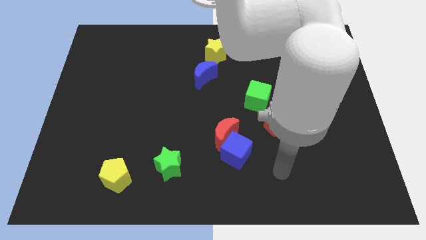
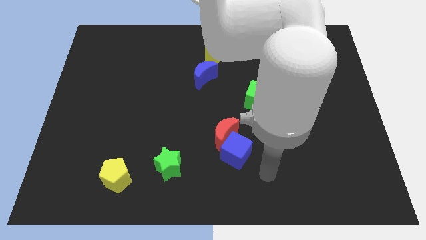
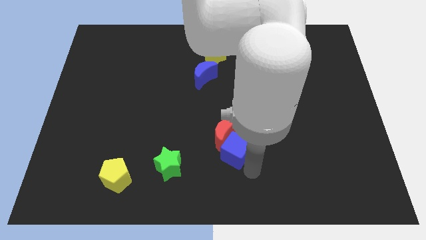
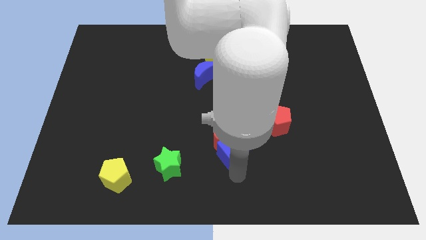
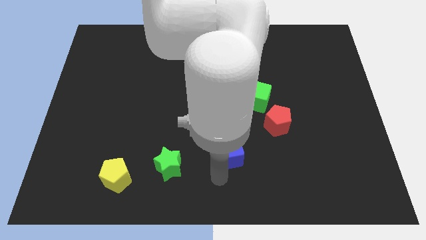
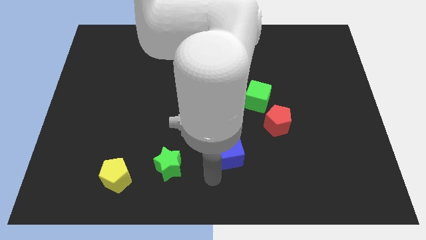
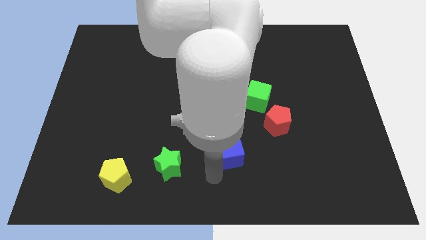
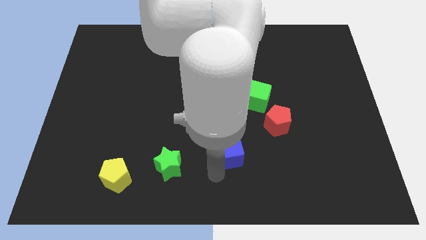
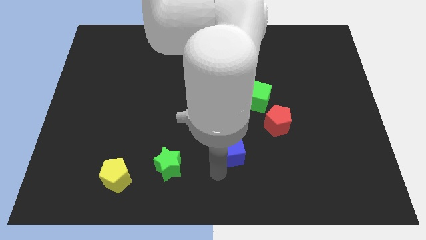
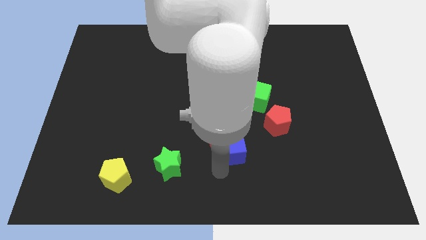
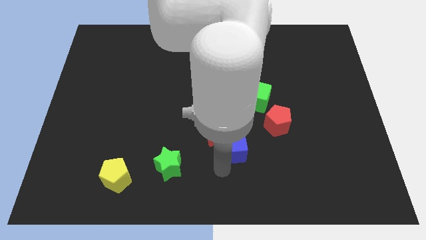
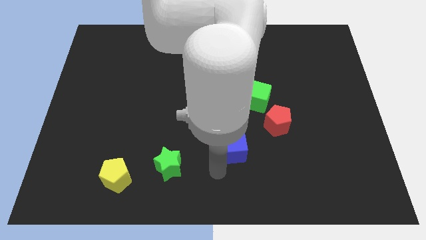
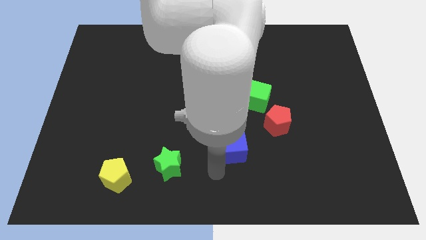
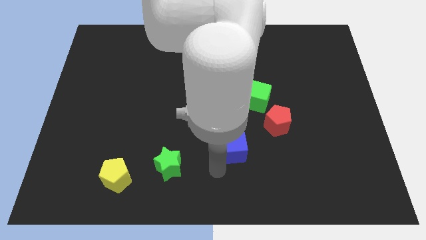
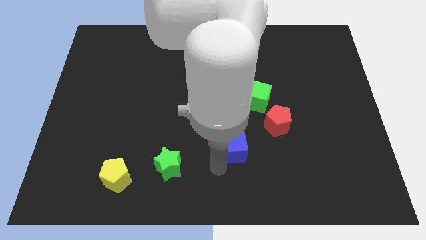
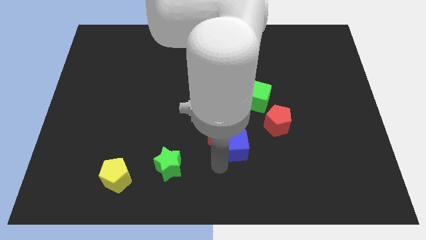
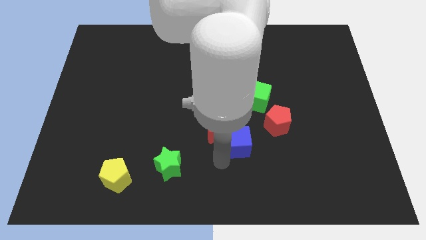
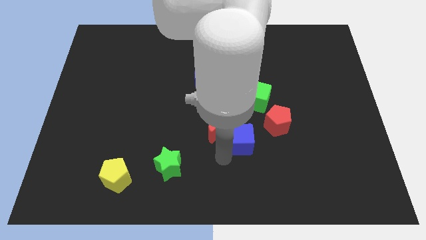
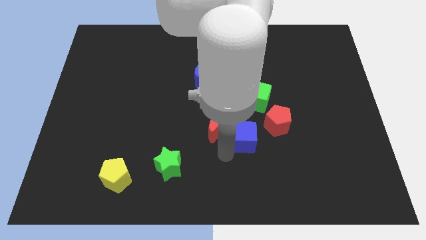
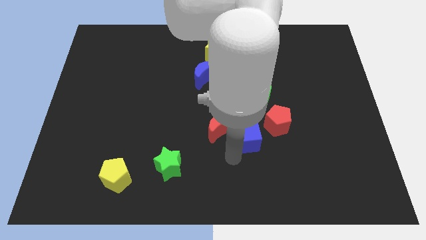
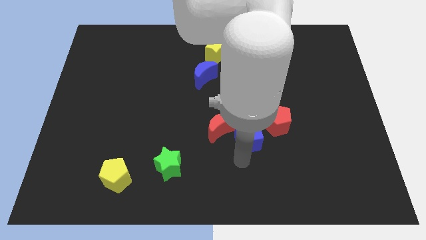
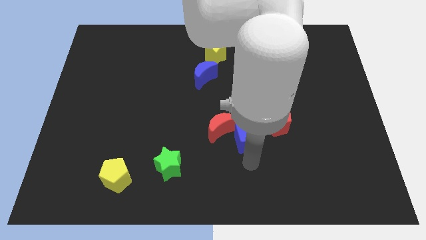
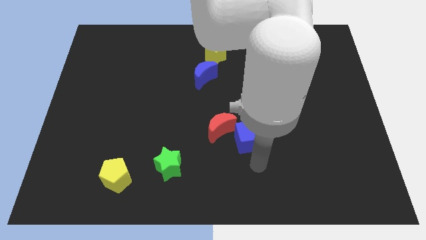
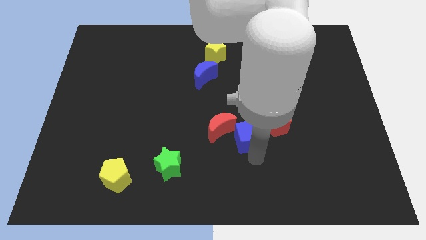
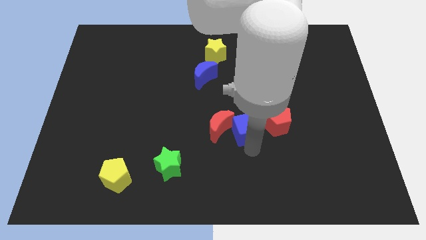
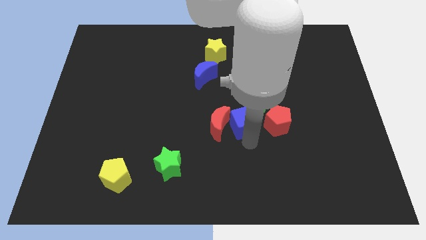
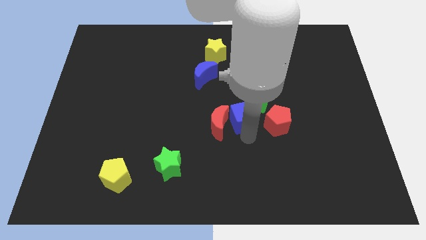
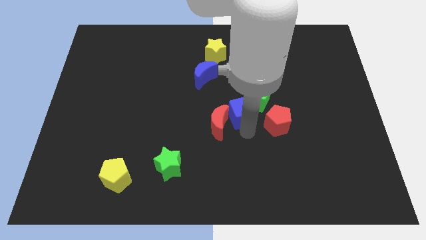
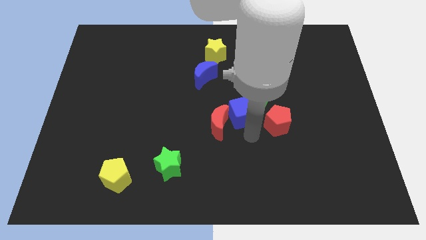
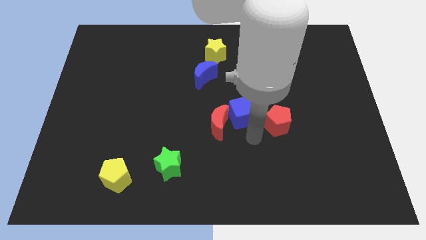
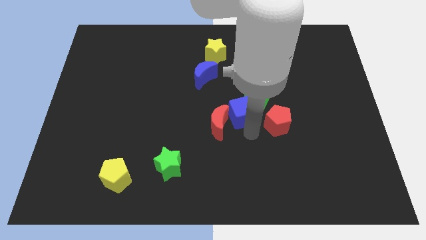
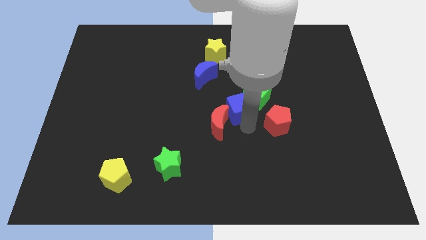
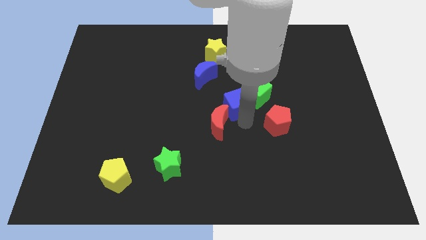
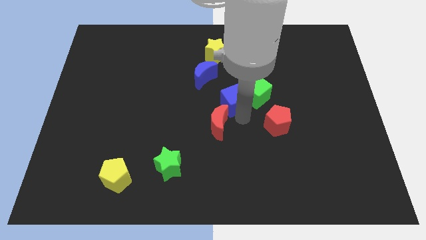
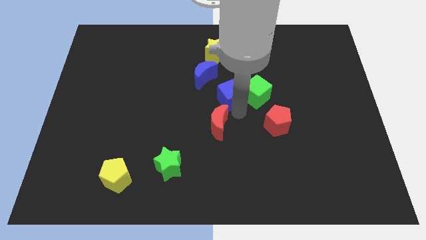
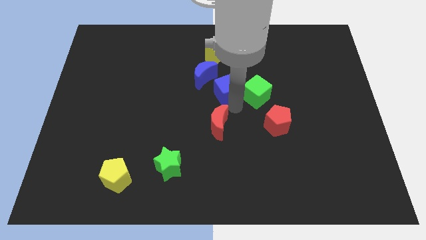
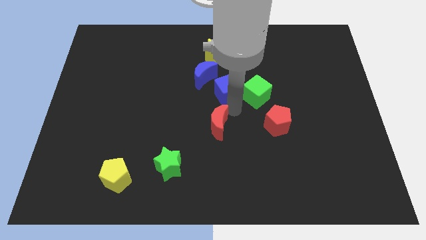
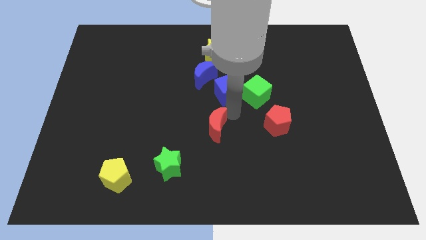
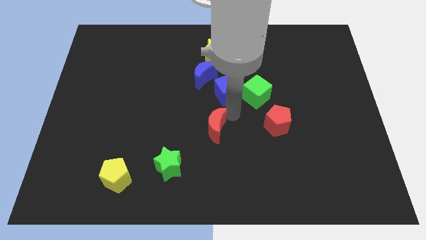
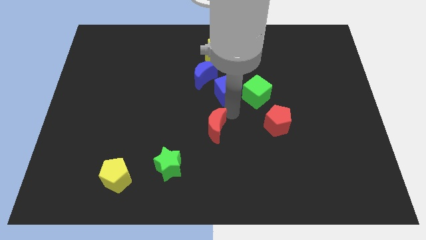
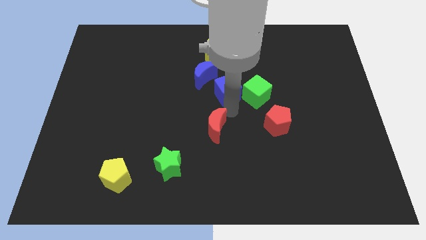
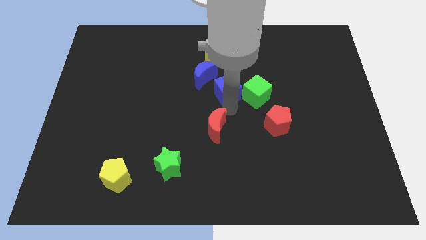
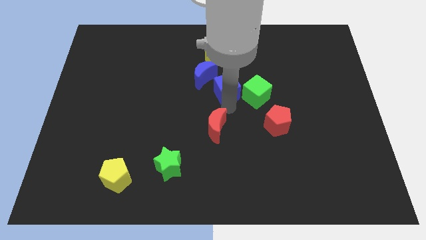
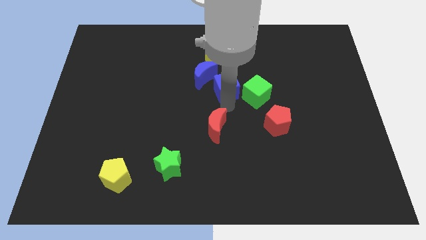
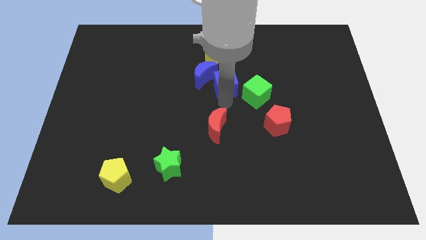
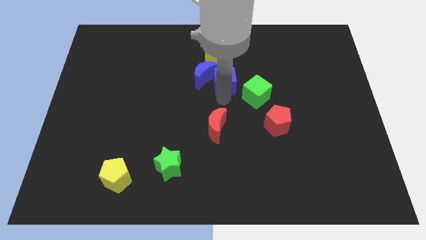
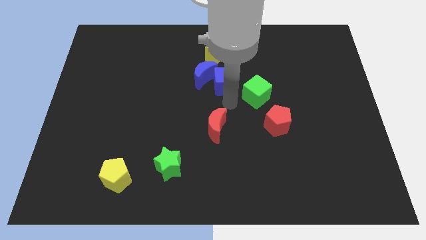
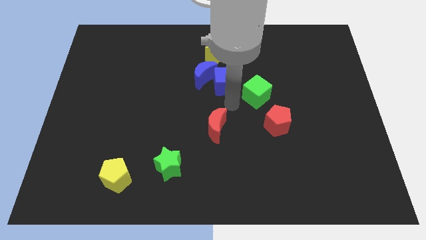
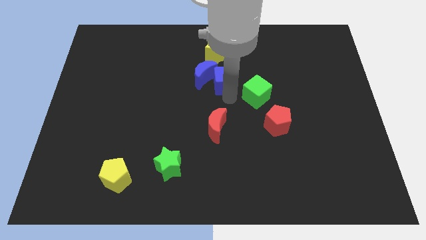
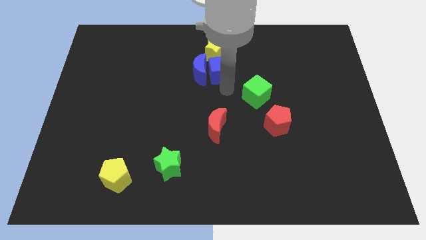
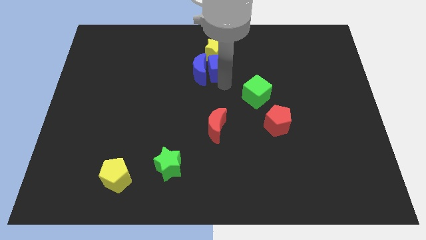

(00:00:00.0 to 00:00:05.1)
put the blue cube close to the yellow star

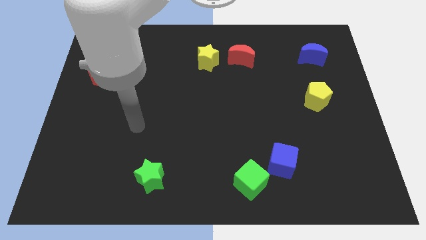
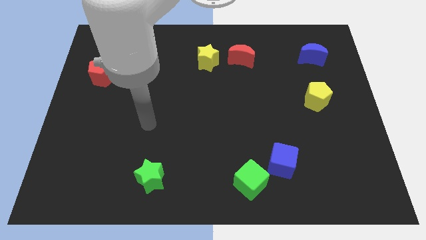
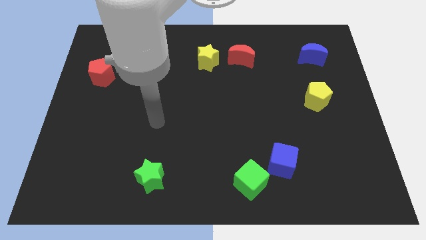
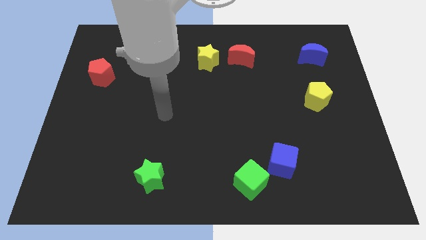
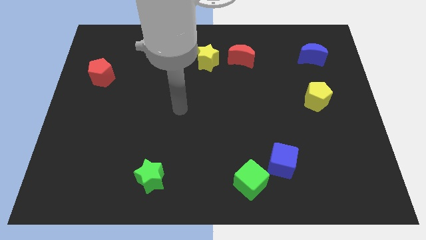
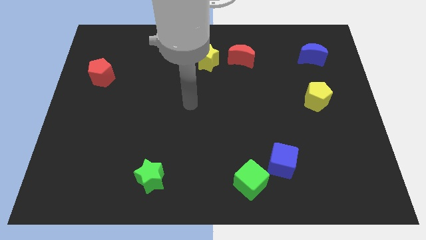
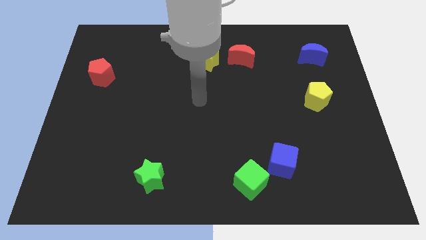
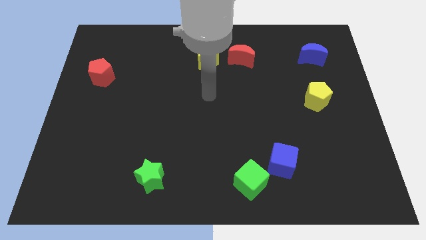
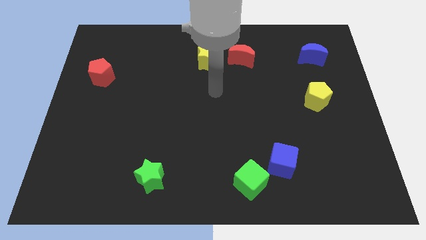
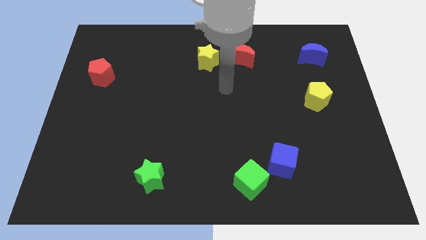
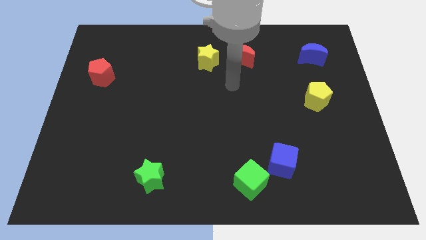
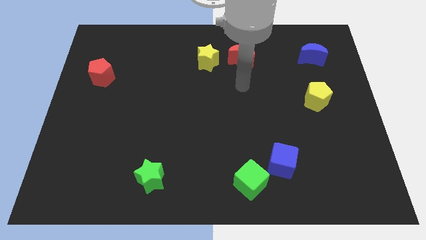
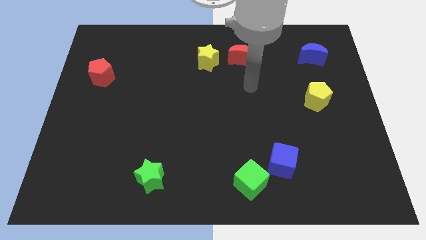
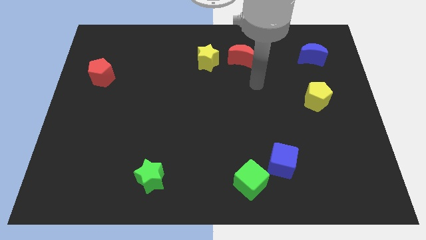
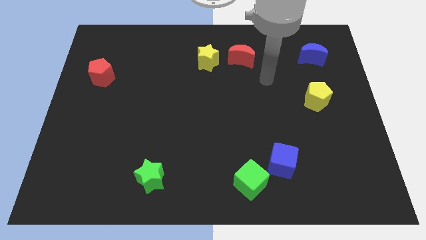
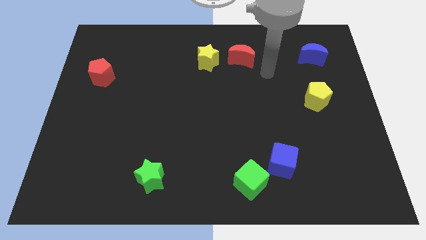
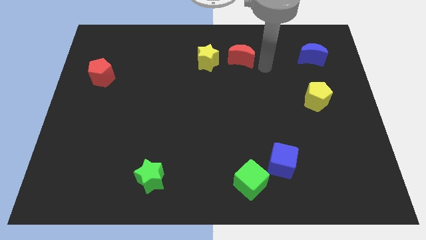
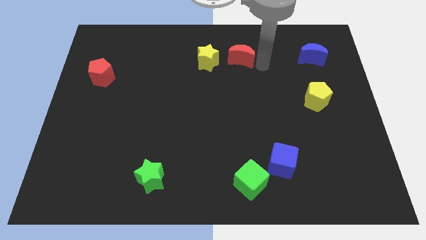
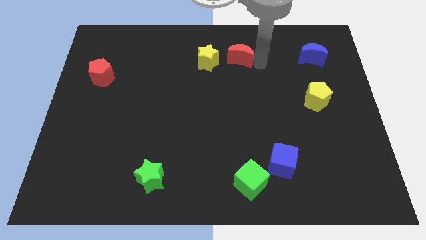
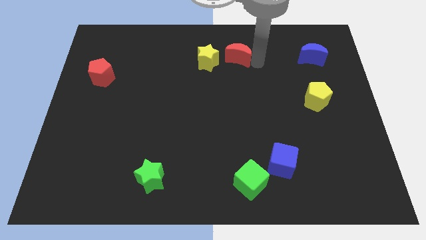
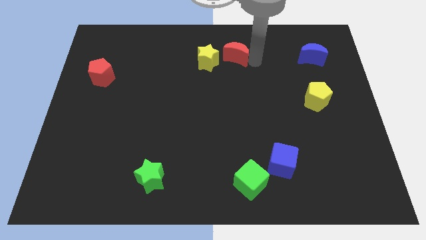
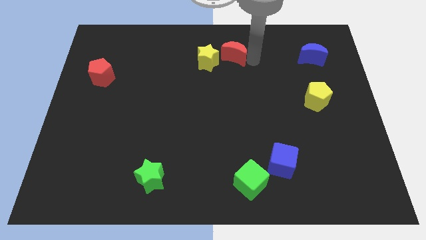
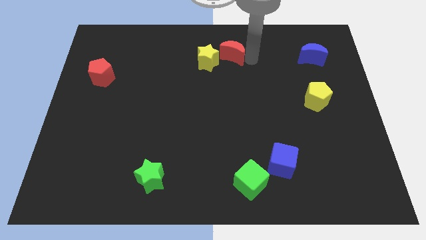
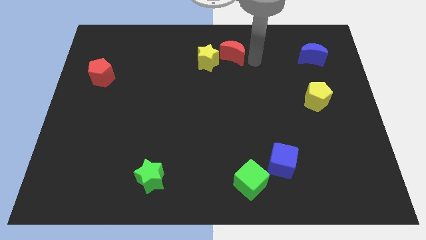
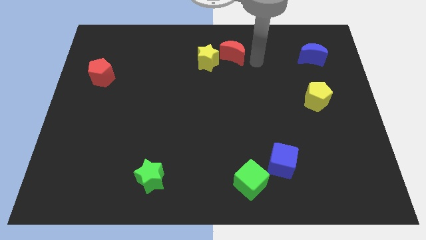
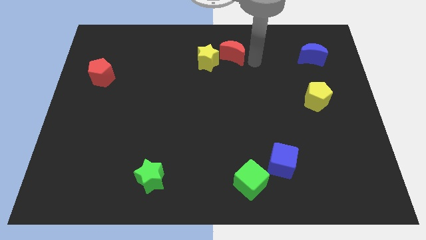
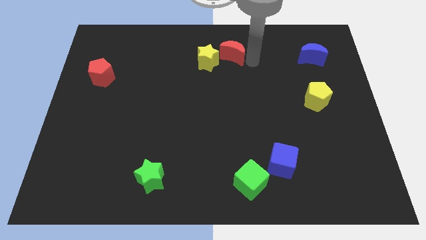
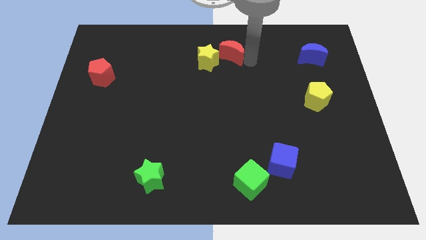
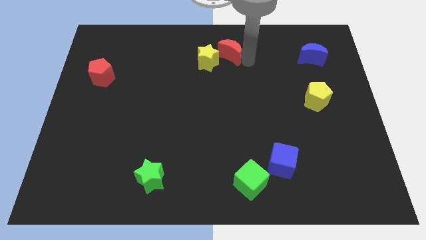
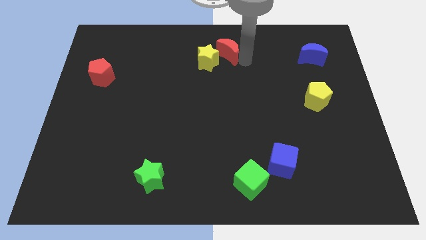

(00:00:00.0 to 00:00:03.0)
move the red moon to the yellow star
